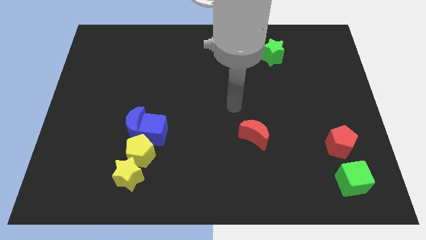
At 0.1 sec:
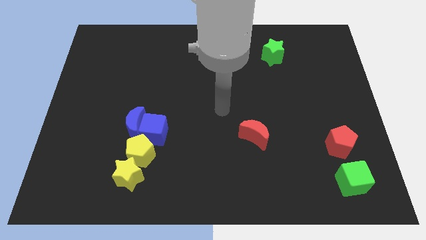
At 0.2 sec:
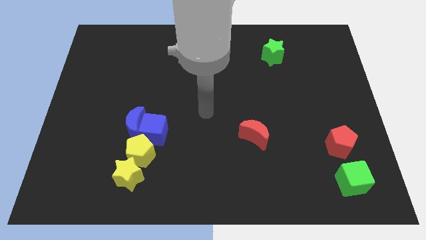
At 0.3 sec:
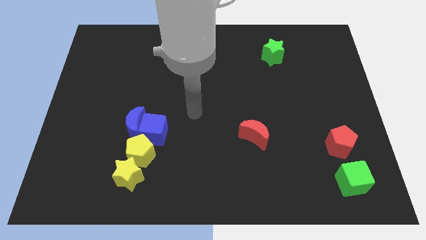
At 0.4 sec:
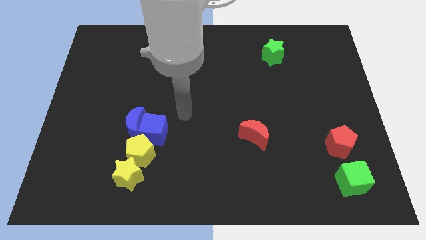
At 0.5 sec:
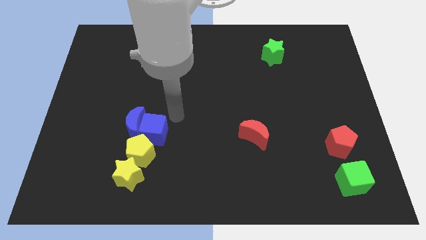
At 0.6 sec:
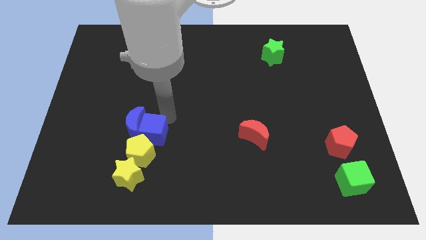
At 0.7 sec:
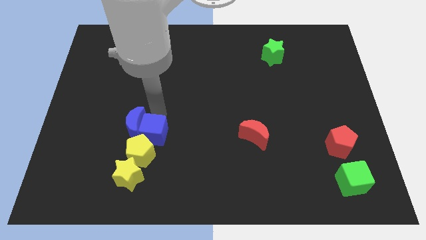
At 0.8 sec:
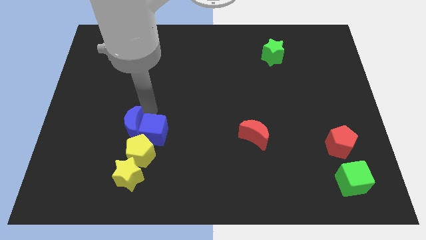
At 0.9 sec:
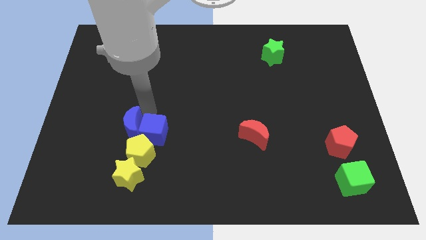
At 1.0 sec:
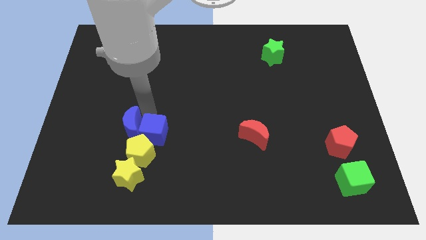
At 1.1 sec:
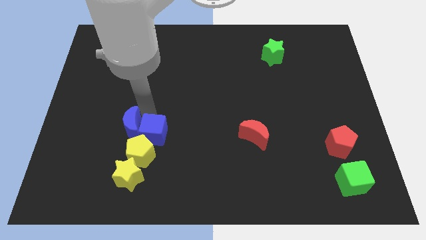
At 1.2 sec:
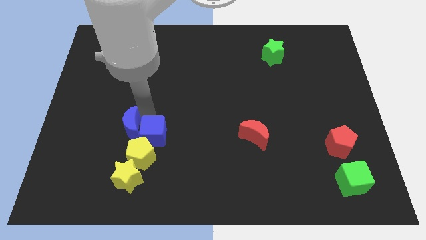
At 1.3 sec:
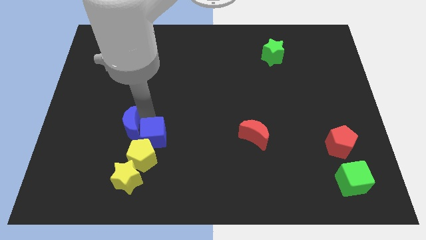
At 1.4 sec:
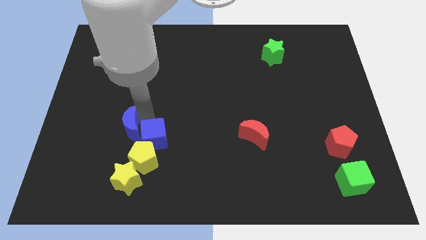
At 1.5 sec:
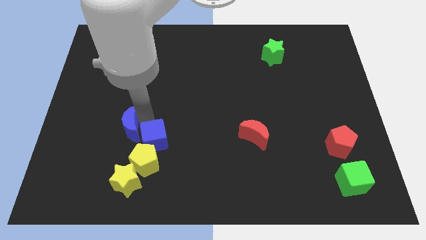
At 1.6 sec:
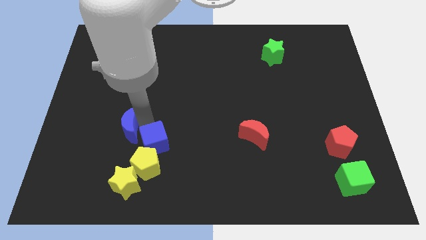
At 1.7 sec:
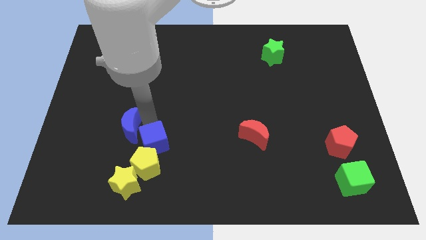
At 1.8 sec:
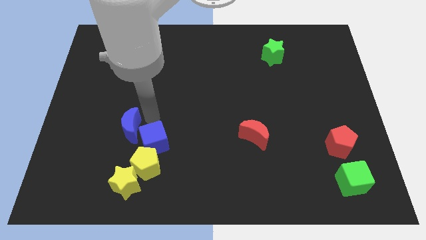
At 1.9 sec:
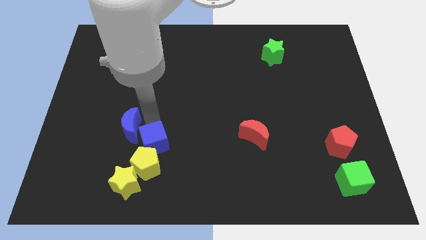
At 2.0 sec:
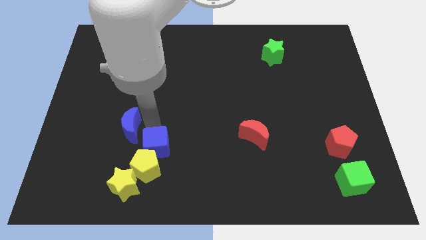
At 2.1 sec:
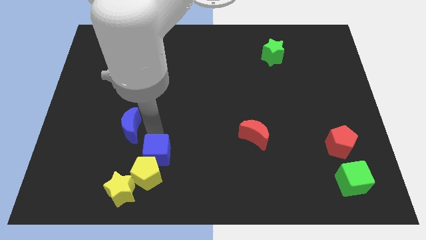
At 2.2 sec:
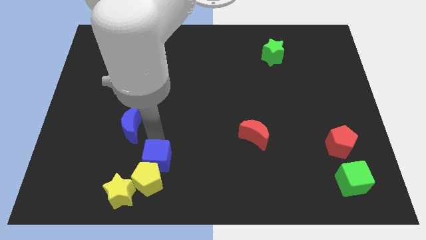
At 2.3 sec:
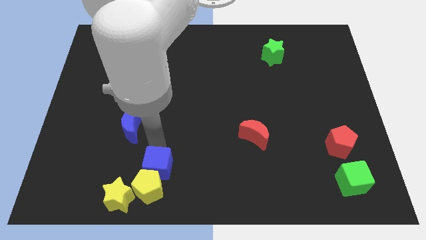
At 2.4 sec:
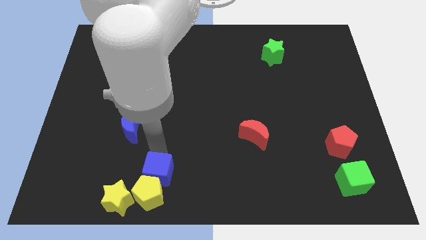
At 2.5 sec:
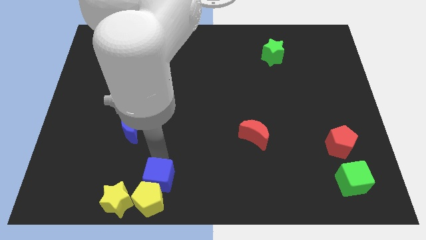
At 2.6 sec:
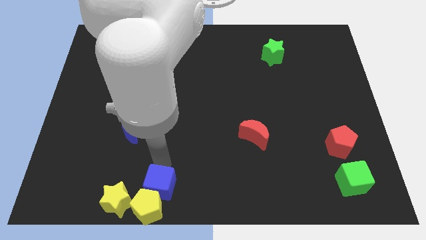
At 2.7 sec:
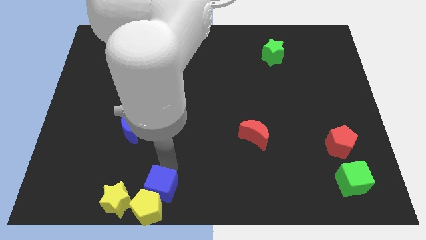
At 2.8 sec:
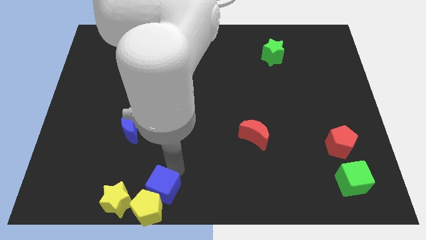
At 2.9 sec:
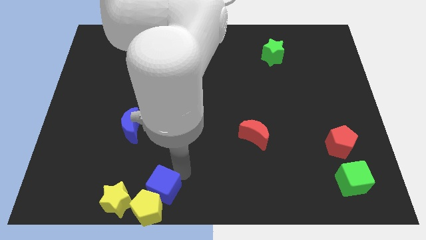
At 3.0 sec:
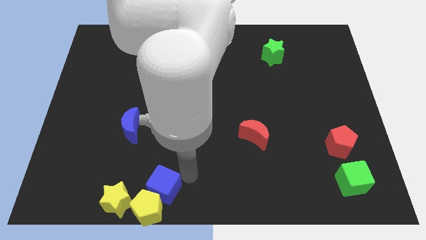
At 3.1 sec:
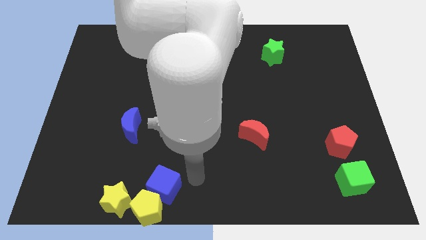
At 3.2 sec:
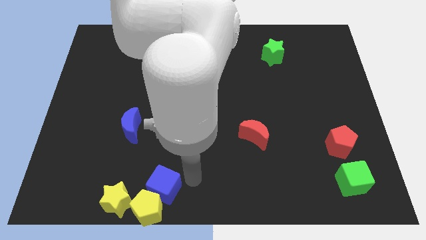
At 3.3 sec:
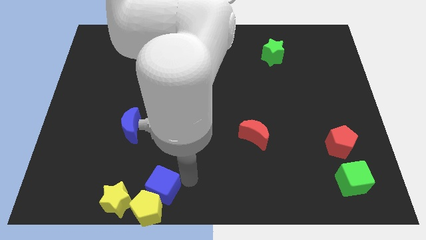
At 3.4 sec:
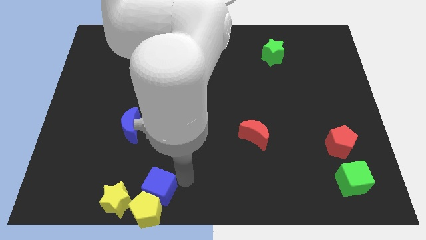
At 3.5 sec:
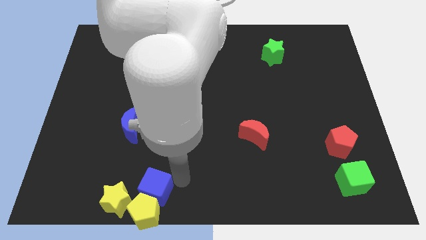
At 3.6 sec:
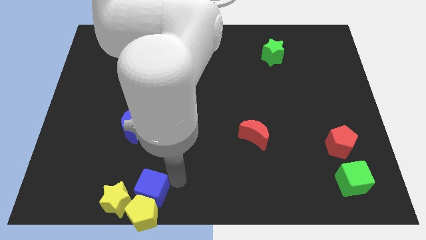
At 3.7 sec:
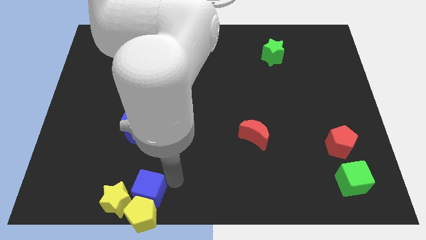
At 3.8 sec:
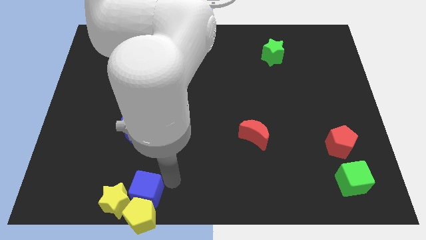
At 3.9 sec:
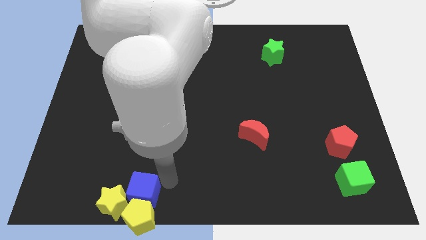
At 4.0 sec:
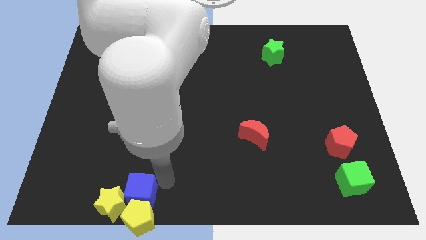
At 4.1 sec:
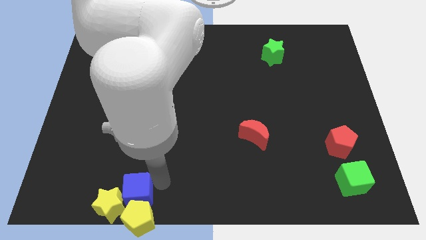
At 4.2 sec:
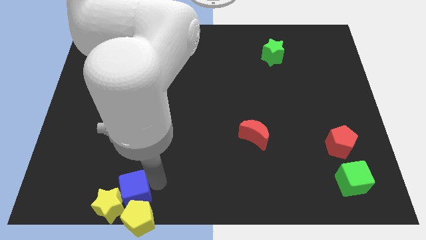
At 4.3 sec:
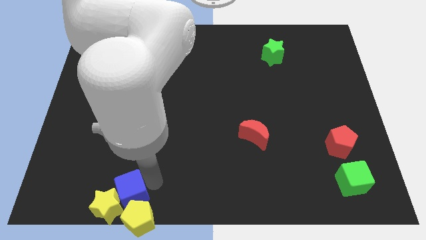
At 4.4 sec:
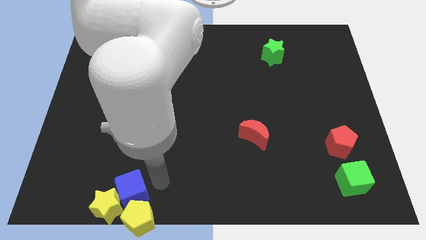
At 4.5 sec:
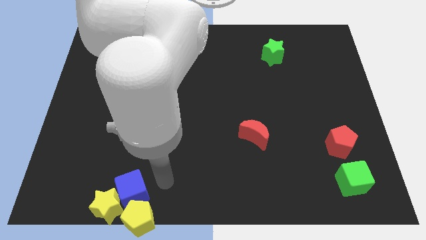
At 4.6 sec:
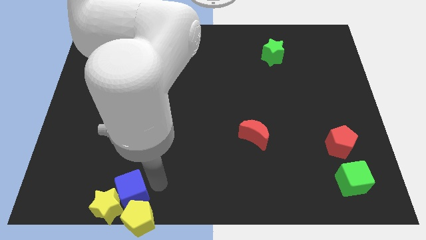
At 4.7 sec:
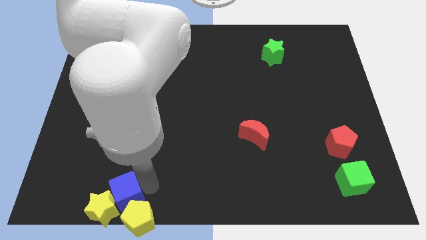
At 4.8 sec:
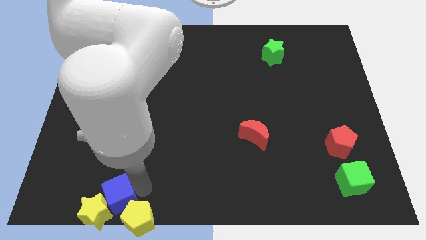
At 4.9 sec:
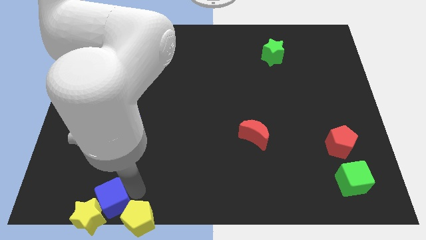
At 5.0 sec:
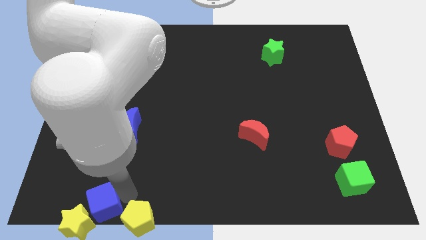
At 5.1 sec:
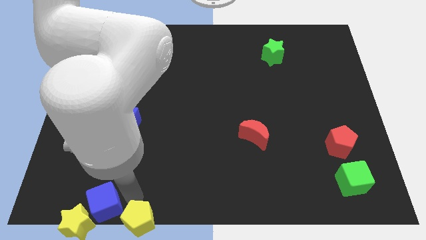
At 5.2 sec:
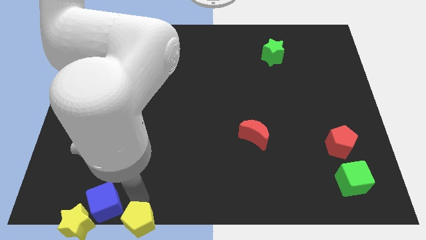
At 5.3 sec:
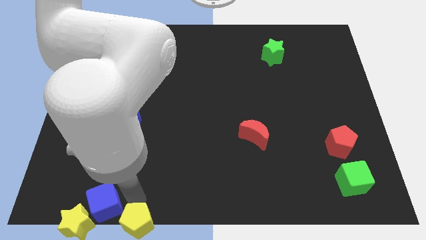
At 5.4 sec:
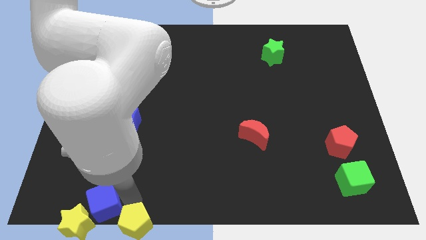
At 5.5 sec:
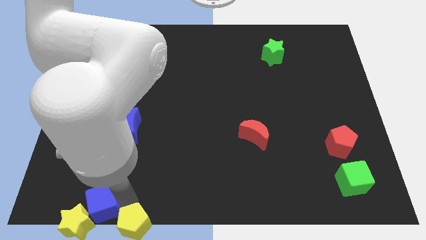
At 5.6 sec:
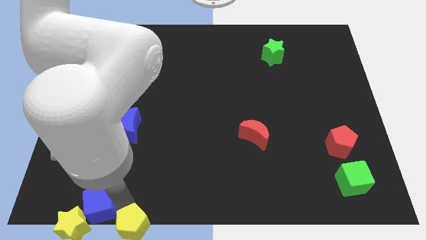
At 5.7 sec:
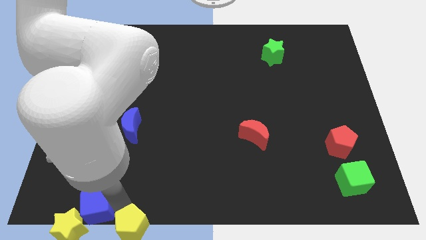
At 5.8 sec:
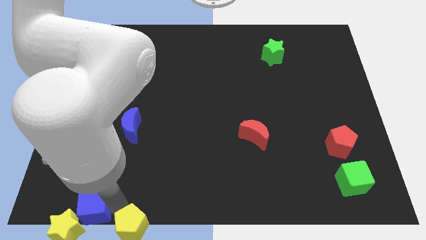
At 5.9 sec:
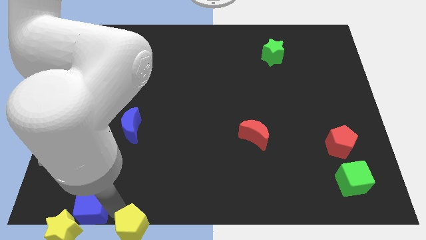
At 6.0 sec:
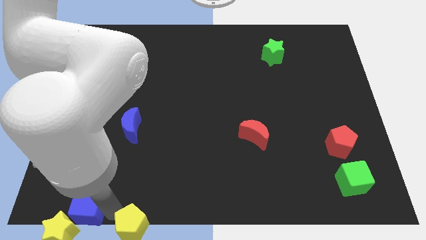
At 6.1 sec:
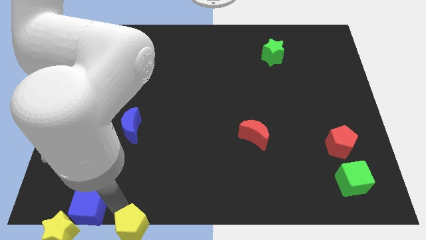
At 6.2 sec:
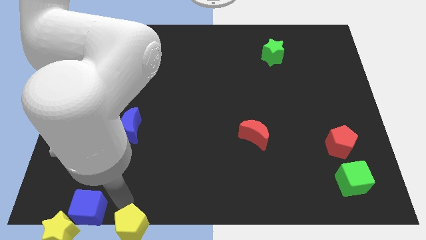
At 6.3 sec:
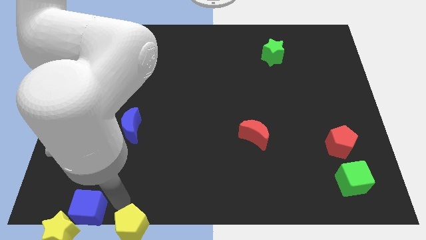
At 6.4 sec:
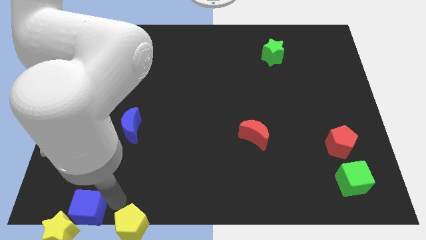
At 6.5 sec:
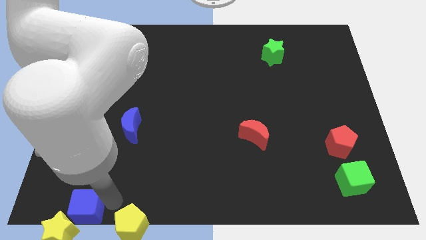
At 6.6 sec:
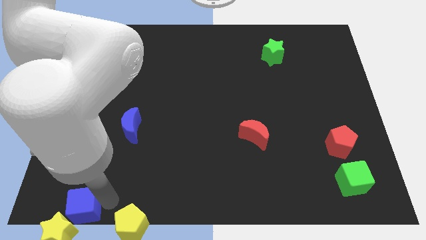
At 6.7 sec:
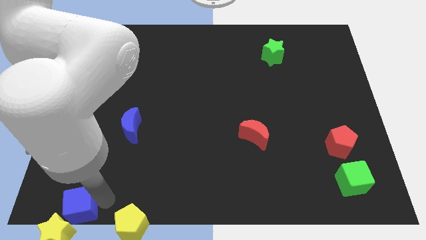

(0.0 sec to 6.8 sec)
move the blue cube to the bottom left
